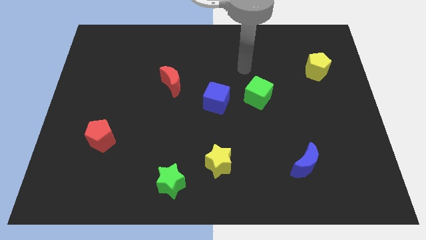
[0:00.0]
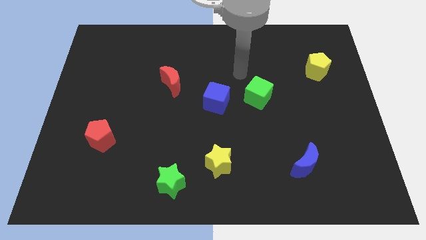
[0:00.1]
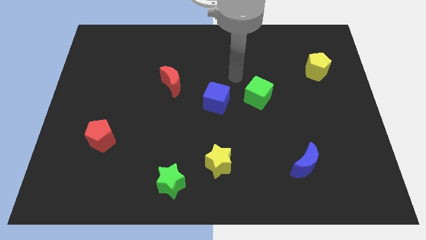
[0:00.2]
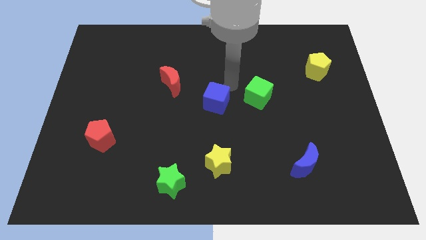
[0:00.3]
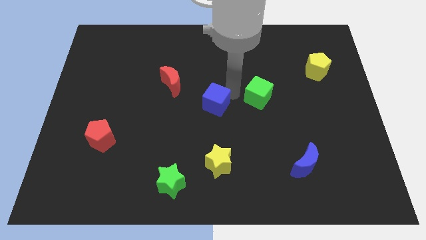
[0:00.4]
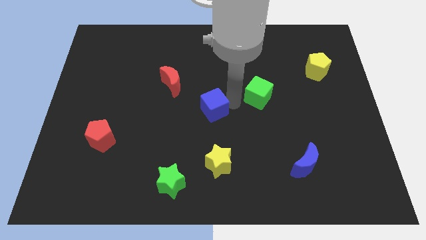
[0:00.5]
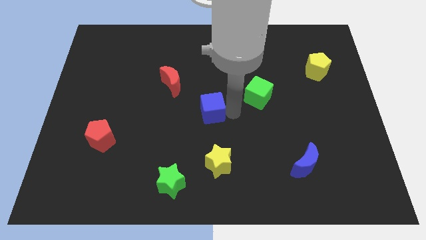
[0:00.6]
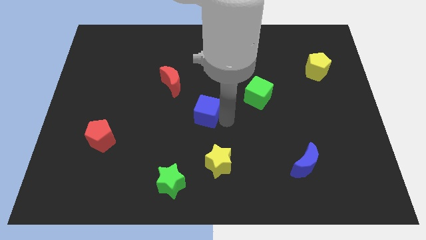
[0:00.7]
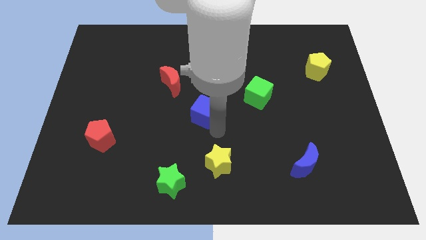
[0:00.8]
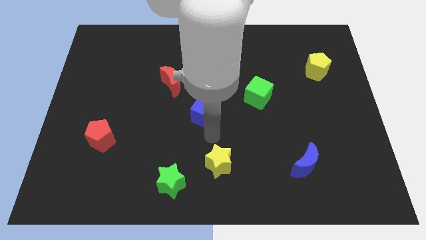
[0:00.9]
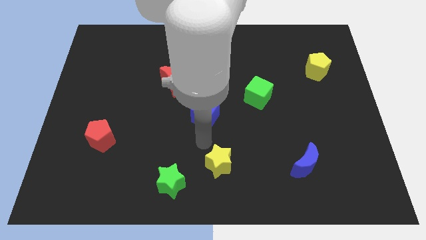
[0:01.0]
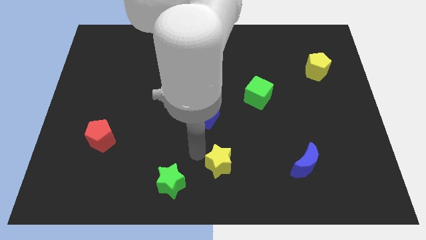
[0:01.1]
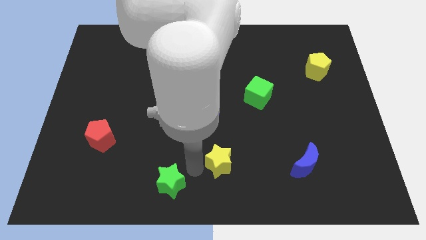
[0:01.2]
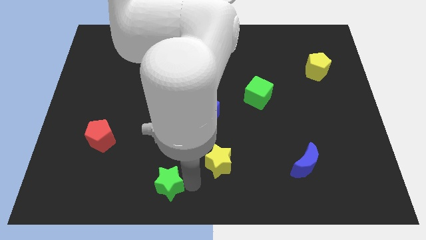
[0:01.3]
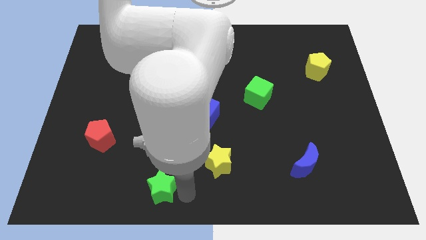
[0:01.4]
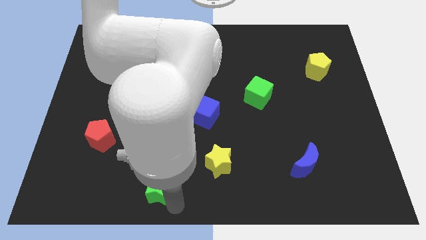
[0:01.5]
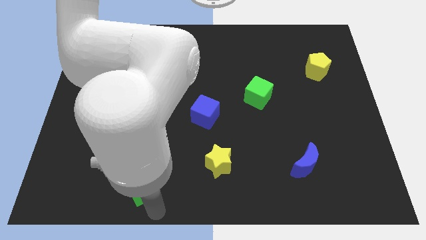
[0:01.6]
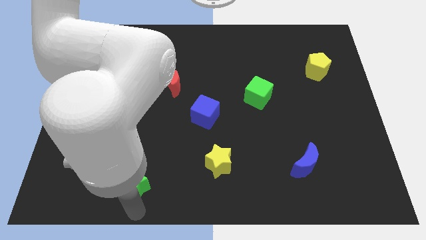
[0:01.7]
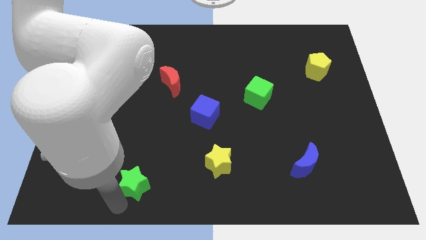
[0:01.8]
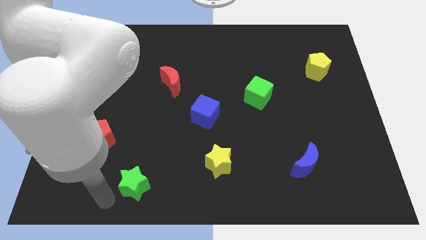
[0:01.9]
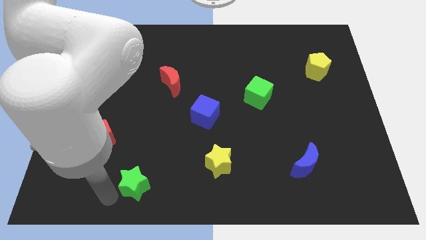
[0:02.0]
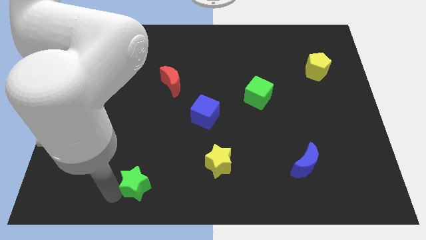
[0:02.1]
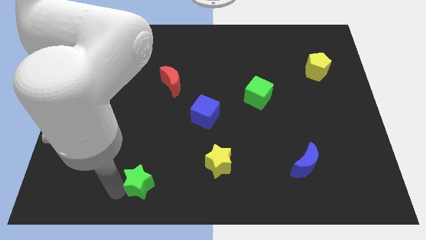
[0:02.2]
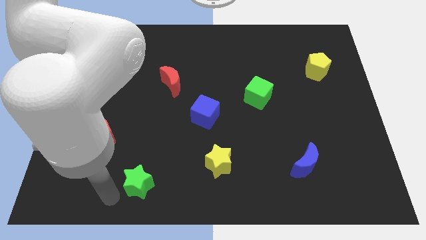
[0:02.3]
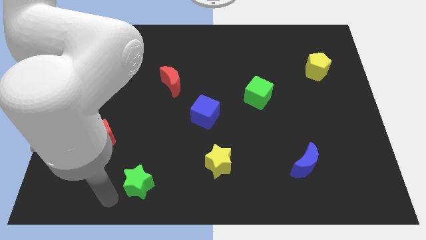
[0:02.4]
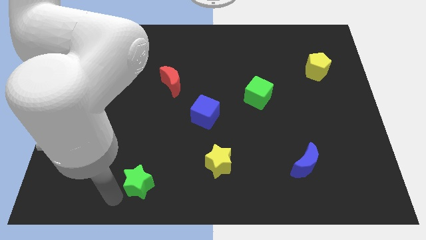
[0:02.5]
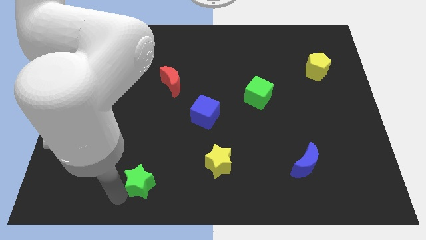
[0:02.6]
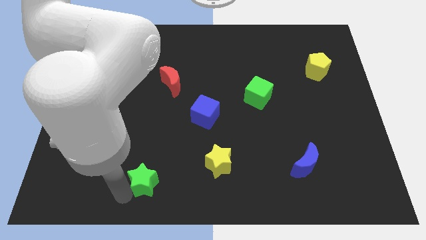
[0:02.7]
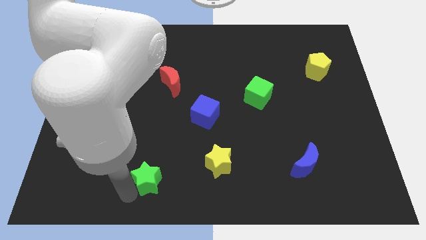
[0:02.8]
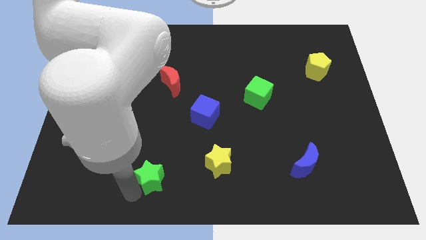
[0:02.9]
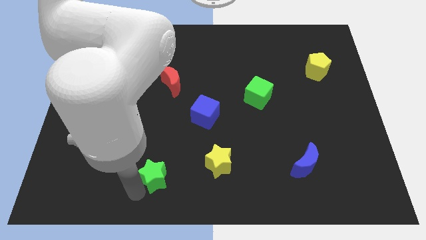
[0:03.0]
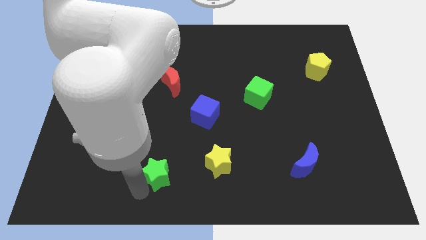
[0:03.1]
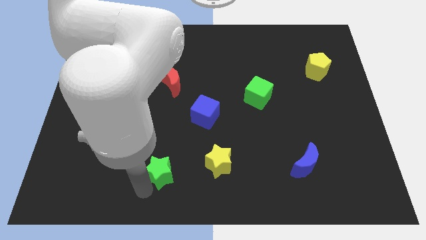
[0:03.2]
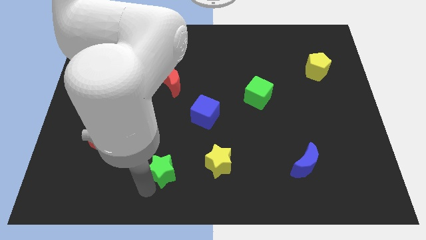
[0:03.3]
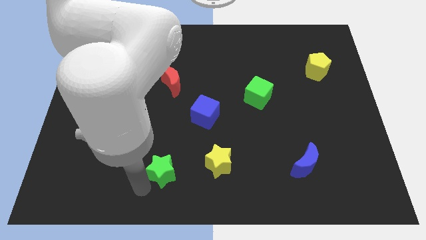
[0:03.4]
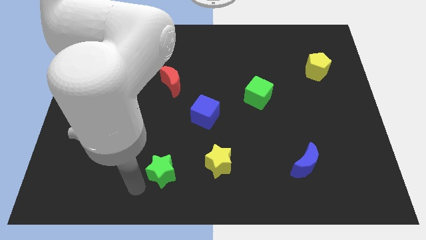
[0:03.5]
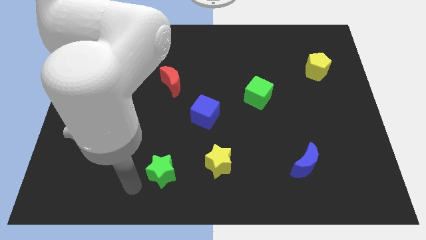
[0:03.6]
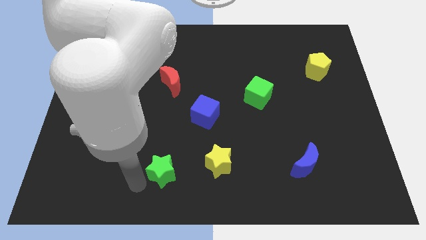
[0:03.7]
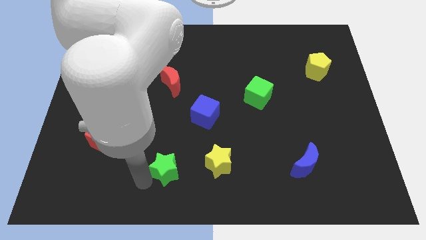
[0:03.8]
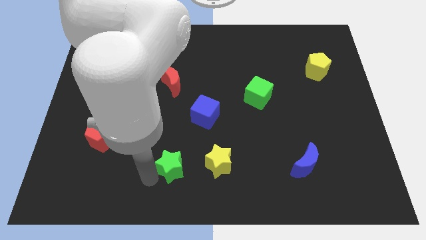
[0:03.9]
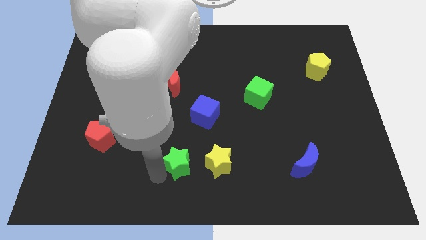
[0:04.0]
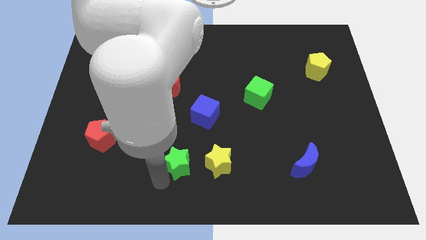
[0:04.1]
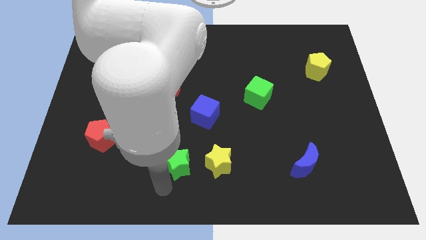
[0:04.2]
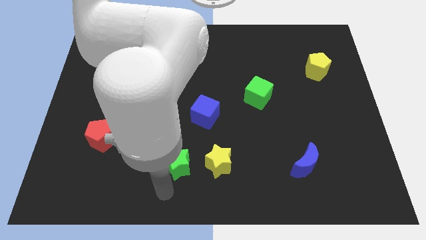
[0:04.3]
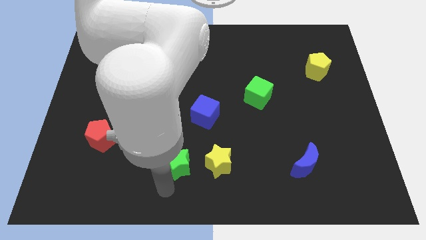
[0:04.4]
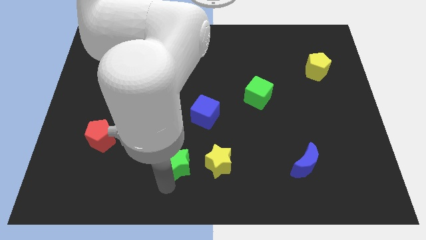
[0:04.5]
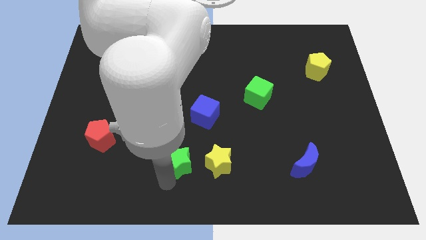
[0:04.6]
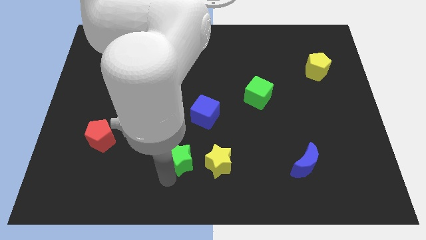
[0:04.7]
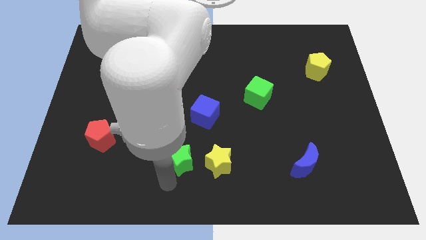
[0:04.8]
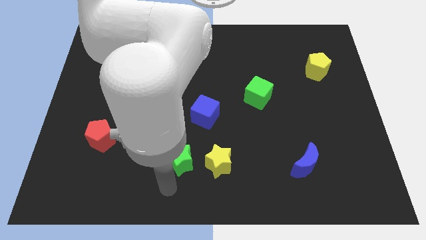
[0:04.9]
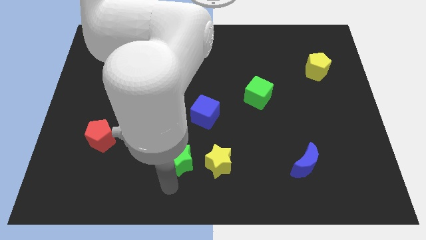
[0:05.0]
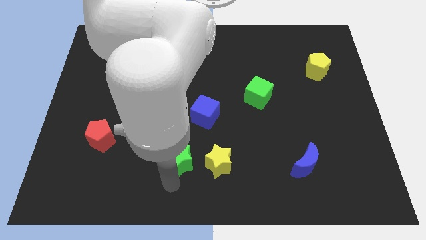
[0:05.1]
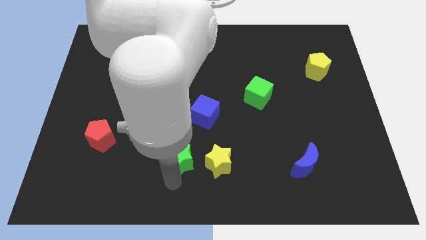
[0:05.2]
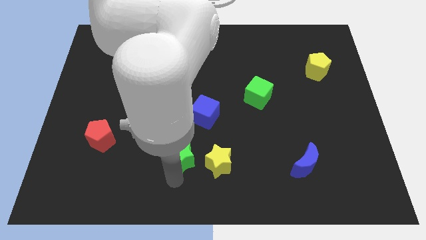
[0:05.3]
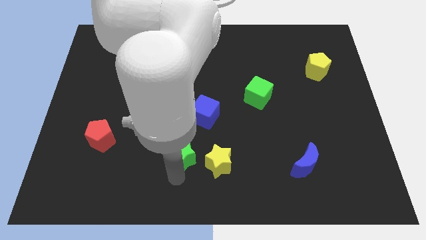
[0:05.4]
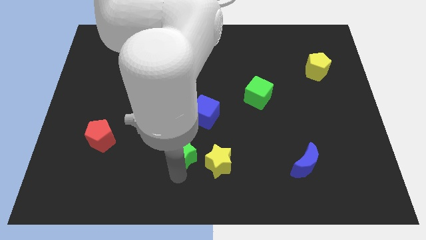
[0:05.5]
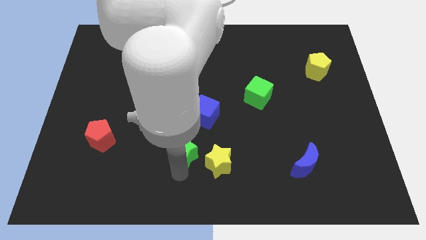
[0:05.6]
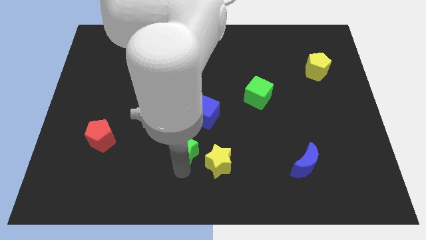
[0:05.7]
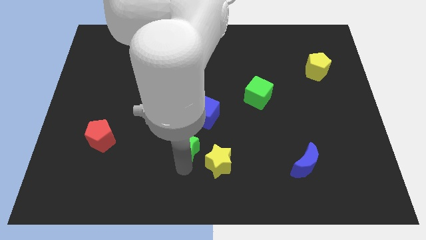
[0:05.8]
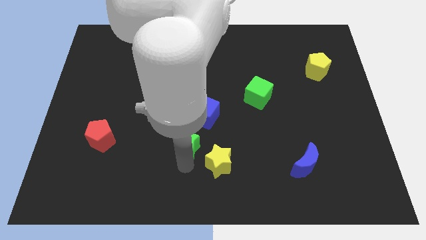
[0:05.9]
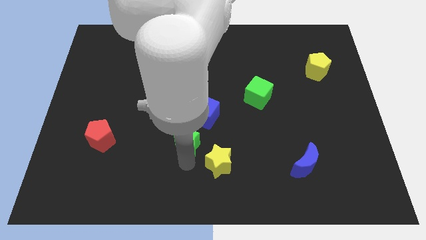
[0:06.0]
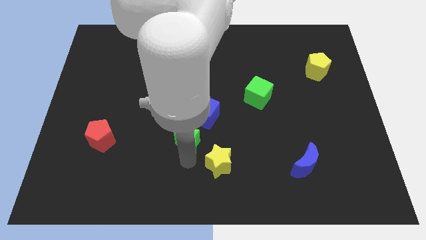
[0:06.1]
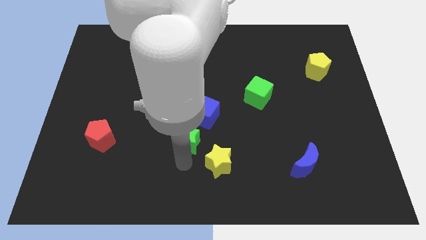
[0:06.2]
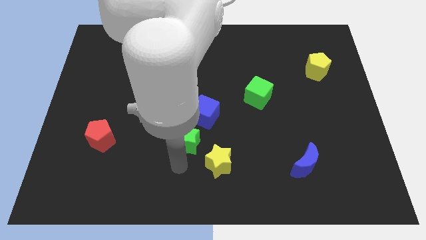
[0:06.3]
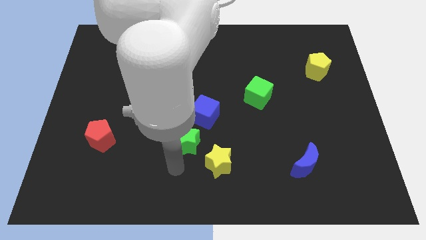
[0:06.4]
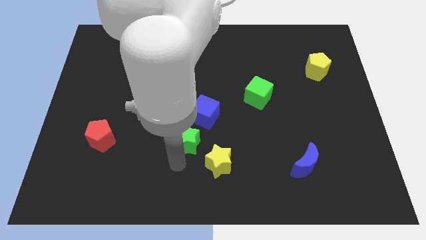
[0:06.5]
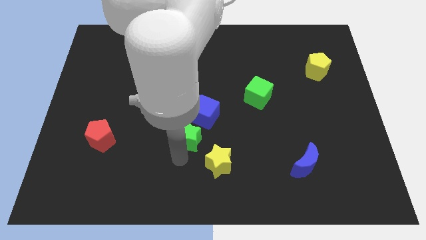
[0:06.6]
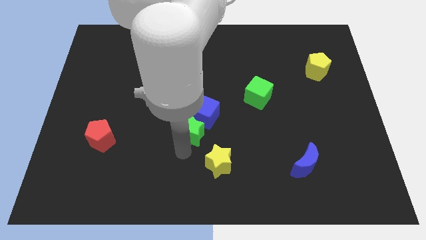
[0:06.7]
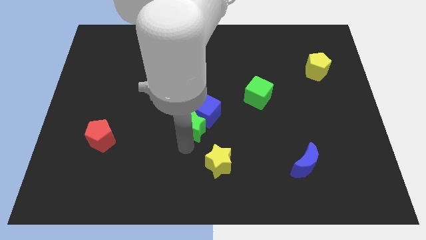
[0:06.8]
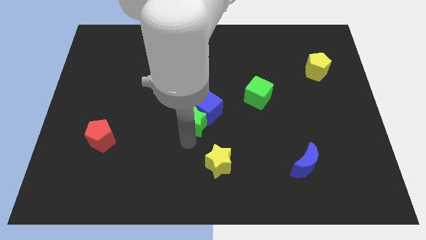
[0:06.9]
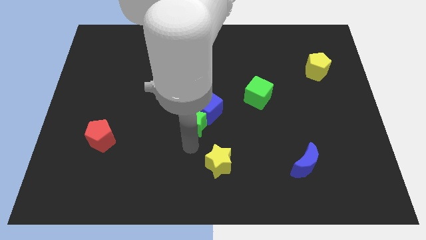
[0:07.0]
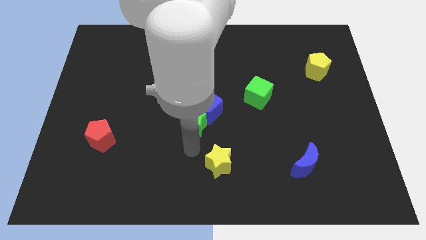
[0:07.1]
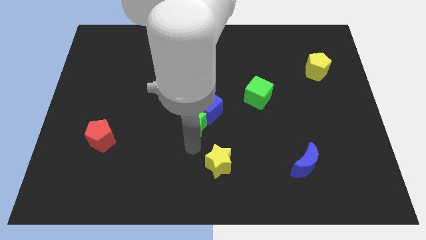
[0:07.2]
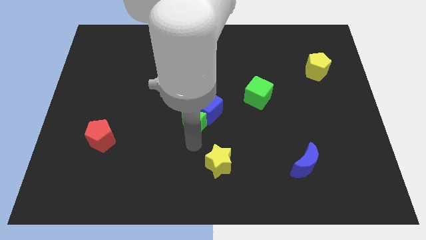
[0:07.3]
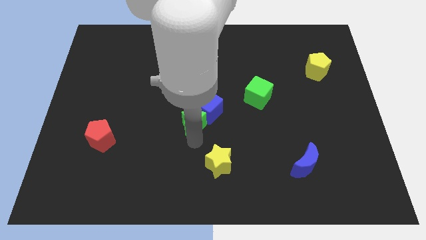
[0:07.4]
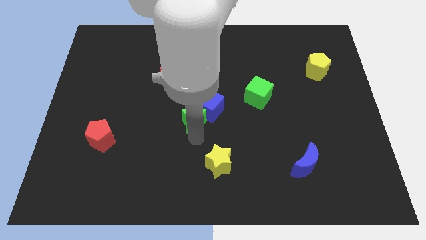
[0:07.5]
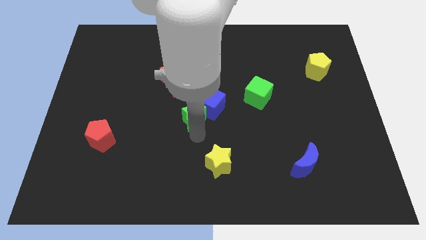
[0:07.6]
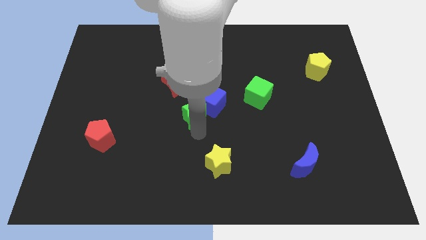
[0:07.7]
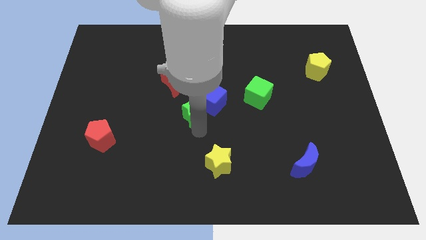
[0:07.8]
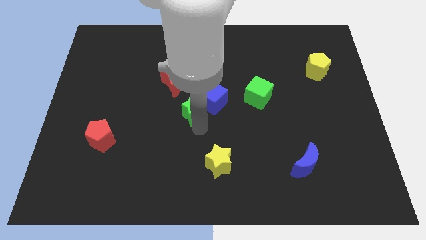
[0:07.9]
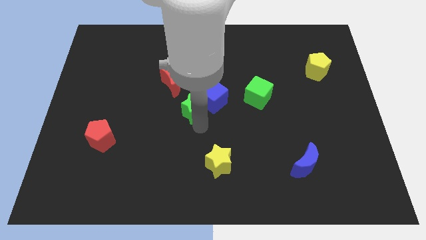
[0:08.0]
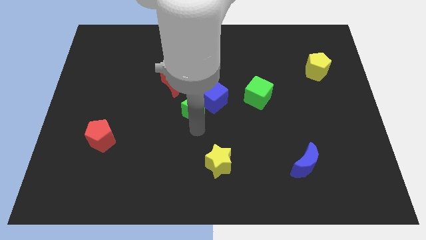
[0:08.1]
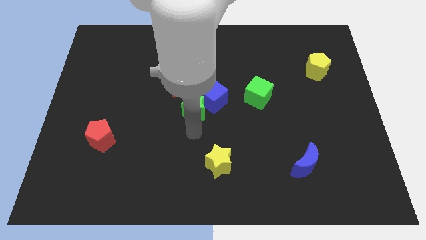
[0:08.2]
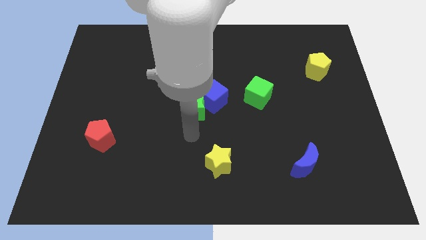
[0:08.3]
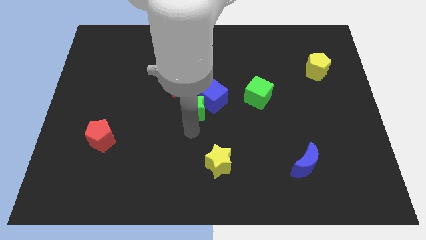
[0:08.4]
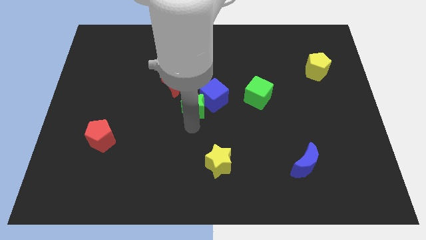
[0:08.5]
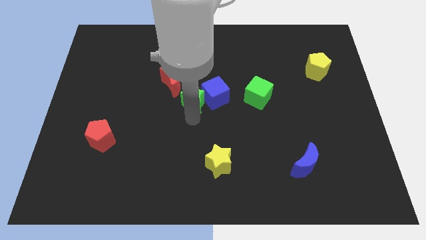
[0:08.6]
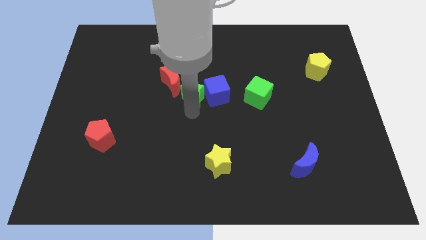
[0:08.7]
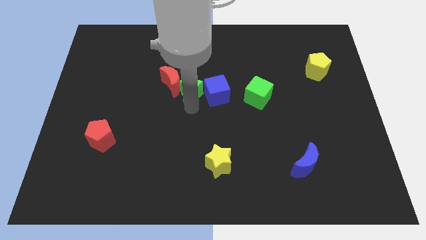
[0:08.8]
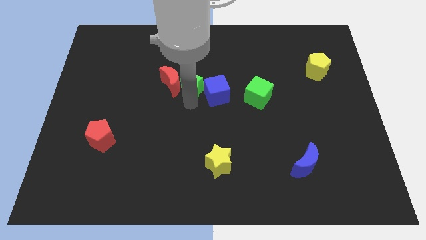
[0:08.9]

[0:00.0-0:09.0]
move the green star to the top right of the red moon
